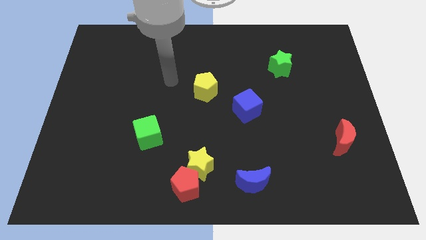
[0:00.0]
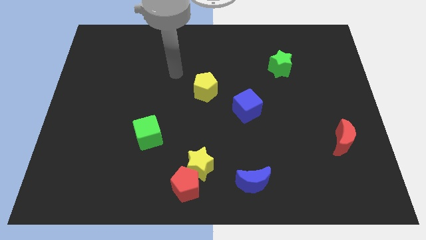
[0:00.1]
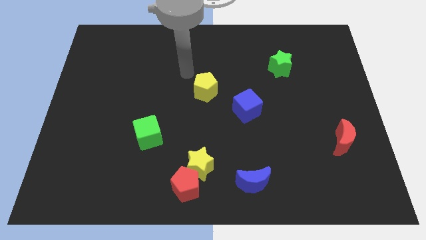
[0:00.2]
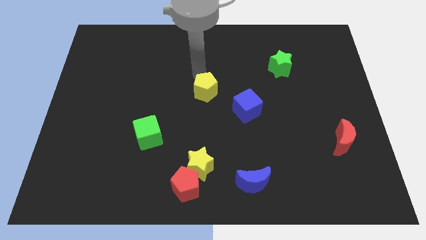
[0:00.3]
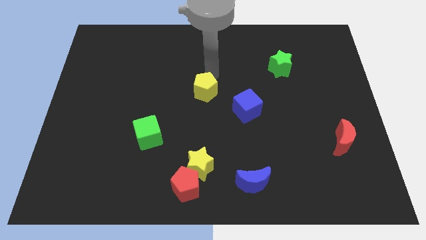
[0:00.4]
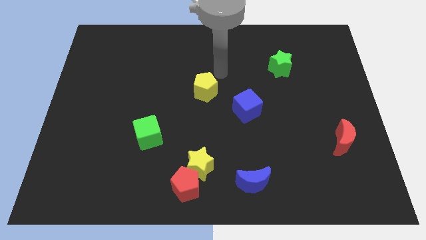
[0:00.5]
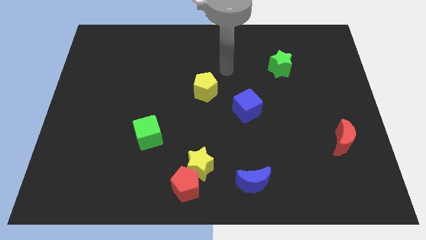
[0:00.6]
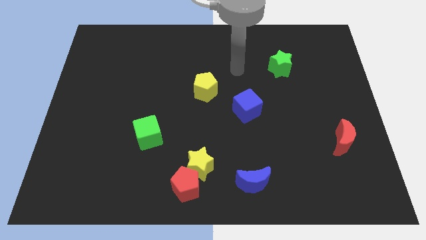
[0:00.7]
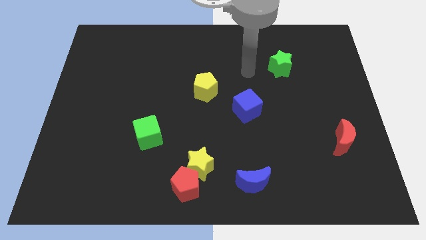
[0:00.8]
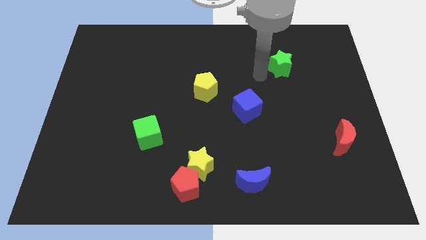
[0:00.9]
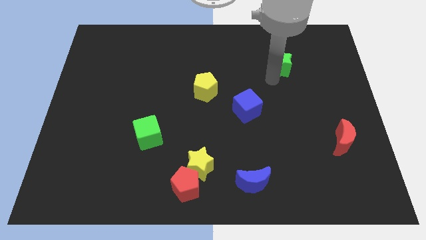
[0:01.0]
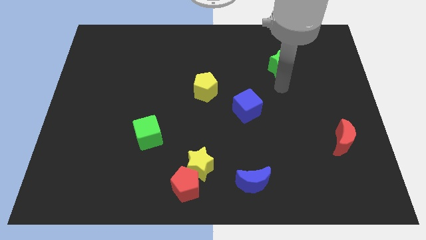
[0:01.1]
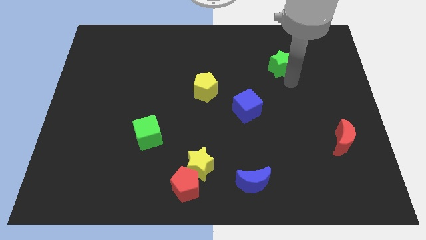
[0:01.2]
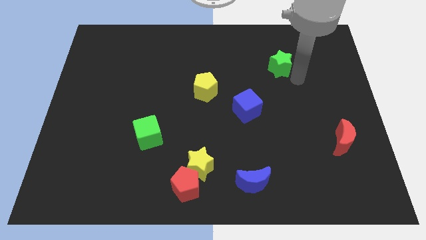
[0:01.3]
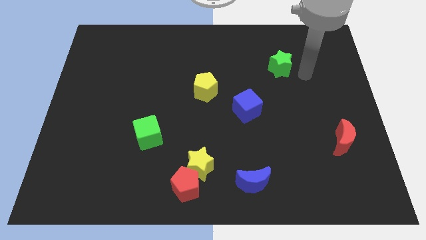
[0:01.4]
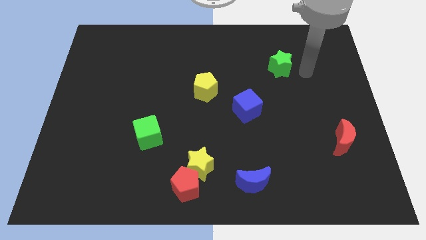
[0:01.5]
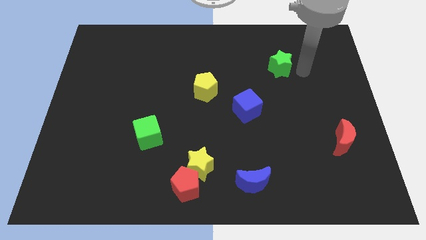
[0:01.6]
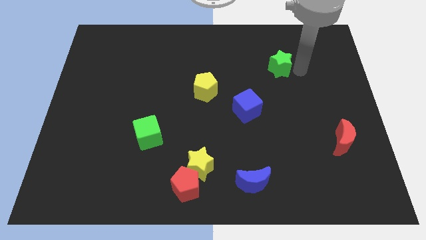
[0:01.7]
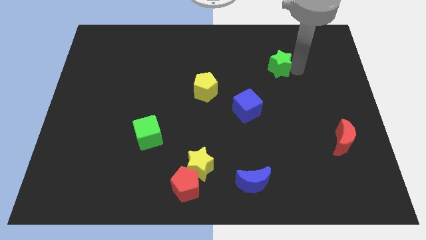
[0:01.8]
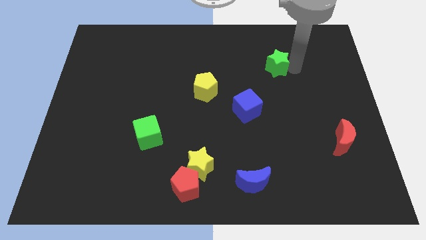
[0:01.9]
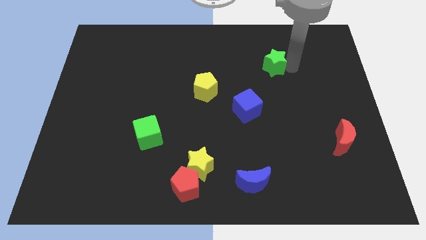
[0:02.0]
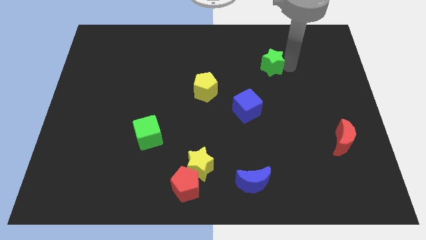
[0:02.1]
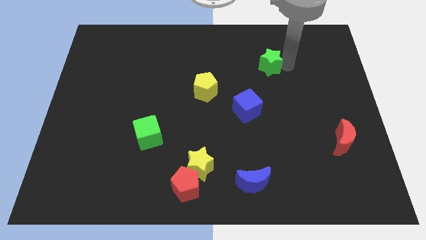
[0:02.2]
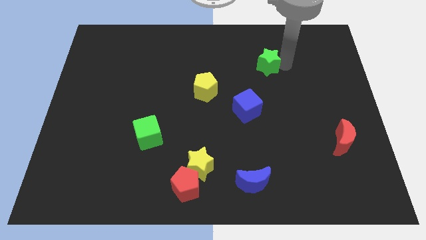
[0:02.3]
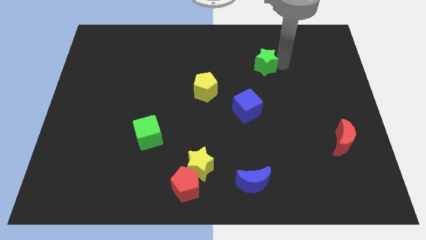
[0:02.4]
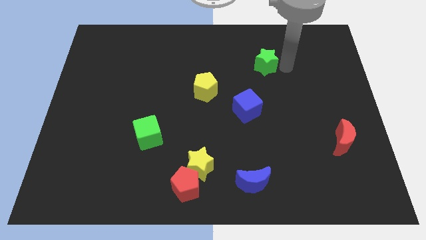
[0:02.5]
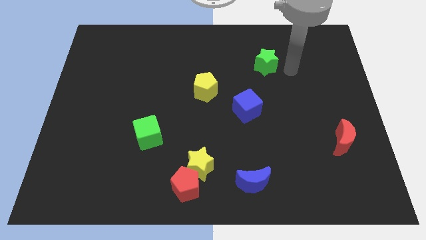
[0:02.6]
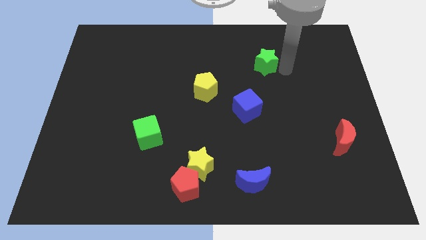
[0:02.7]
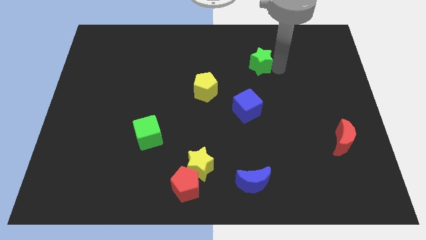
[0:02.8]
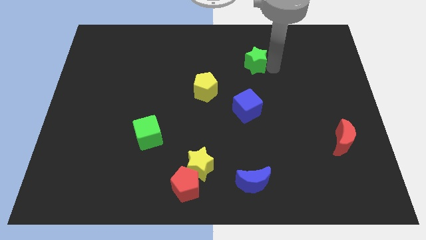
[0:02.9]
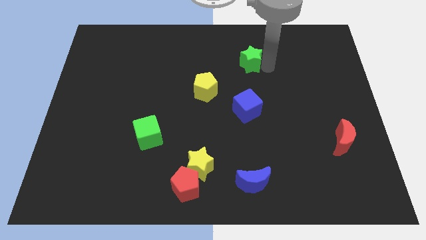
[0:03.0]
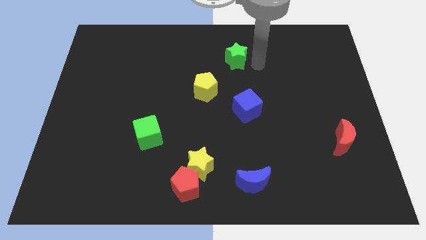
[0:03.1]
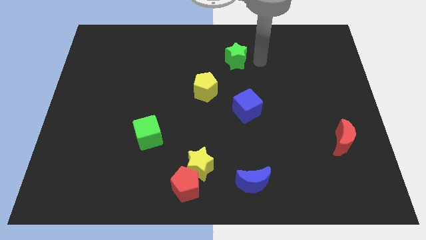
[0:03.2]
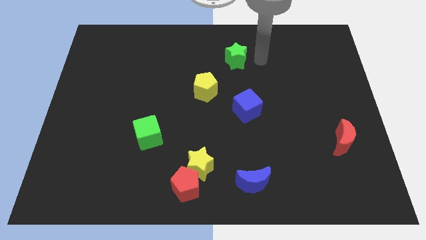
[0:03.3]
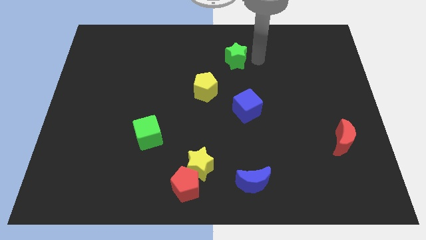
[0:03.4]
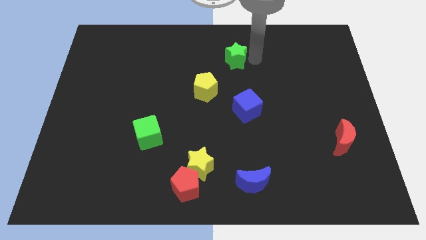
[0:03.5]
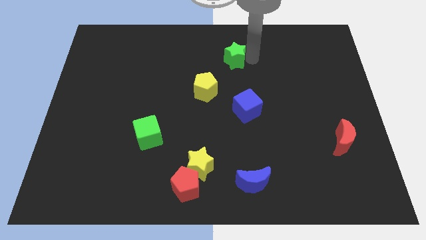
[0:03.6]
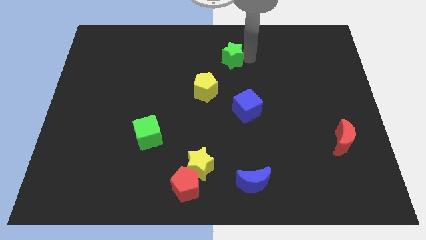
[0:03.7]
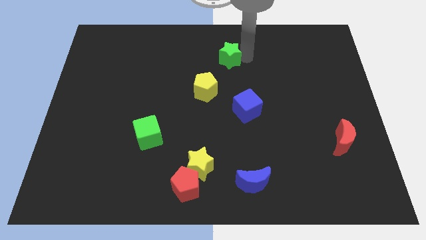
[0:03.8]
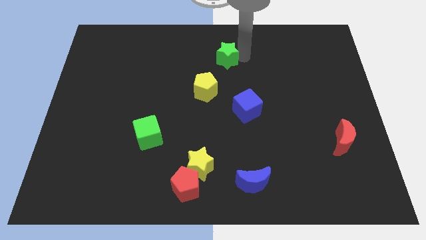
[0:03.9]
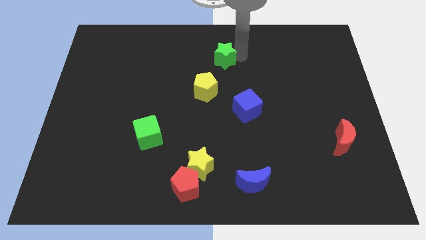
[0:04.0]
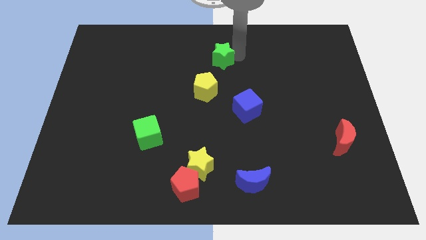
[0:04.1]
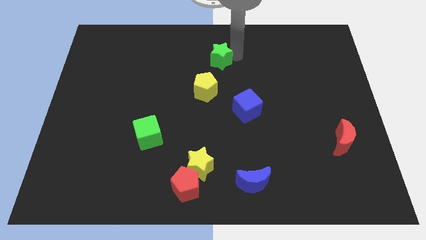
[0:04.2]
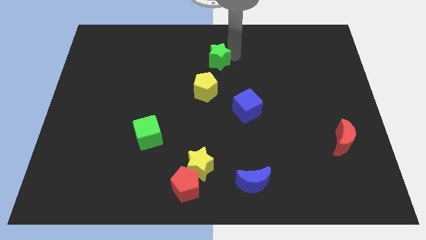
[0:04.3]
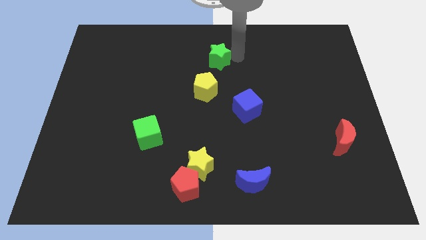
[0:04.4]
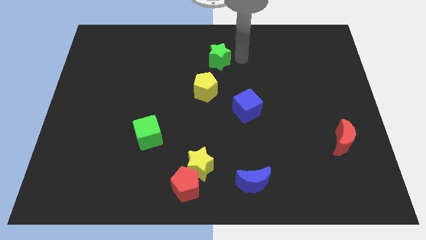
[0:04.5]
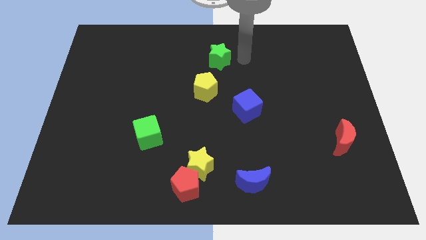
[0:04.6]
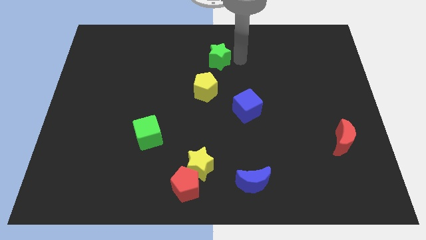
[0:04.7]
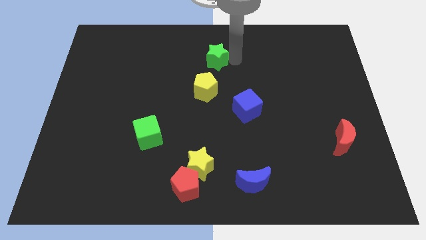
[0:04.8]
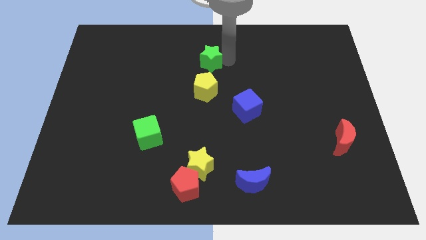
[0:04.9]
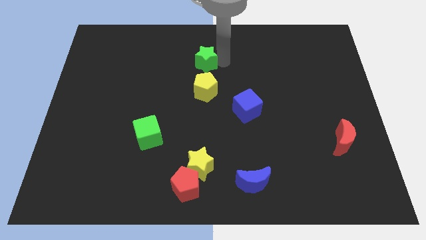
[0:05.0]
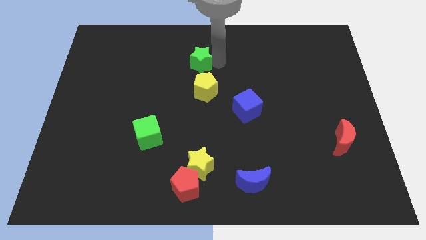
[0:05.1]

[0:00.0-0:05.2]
push the green star to the left

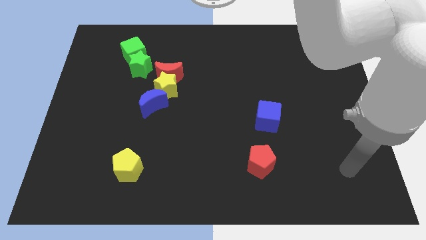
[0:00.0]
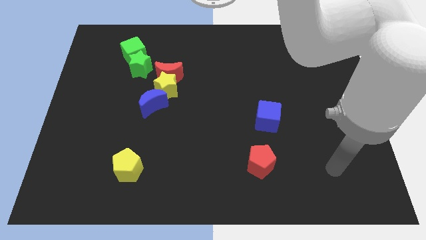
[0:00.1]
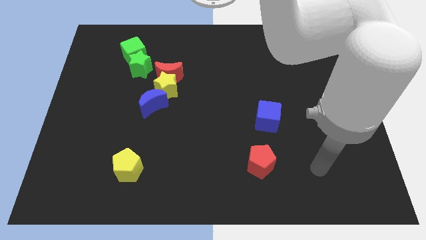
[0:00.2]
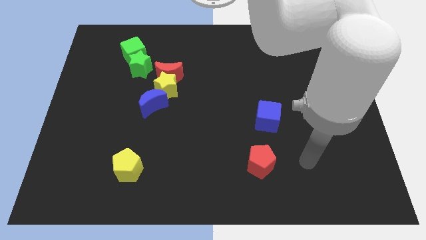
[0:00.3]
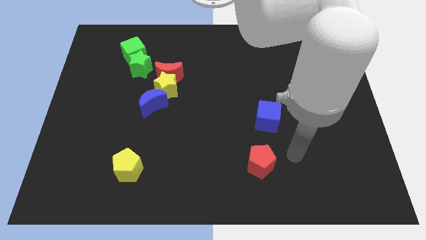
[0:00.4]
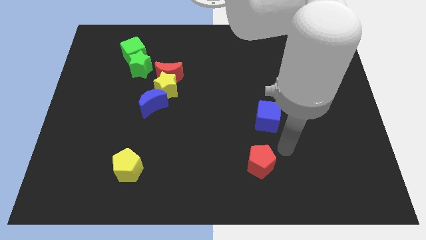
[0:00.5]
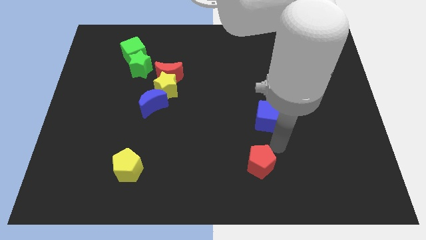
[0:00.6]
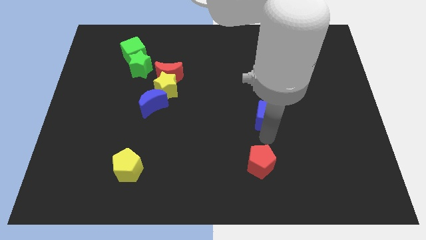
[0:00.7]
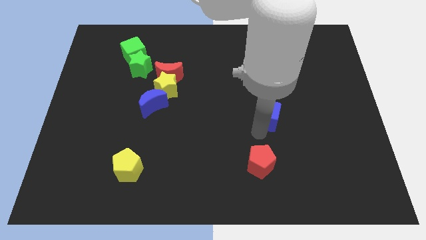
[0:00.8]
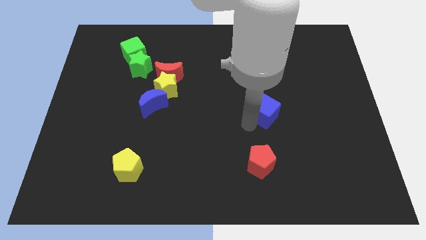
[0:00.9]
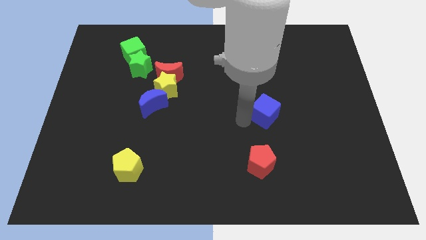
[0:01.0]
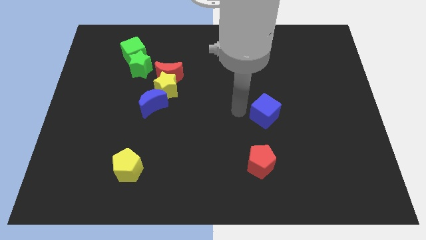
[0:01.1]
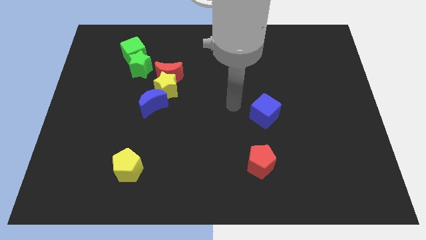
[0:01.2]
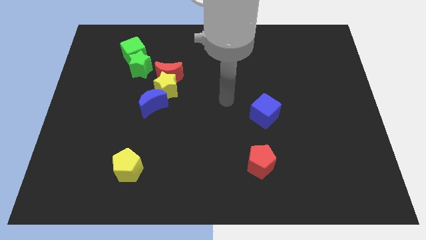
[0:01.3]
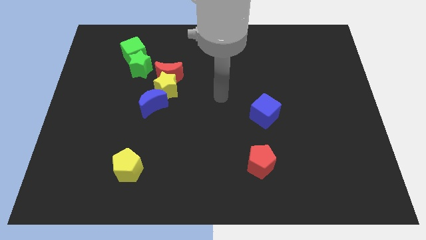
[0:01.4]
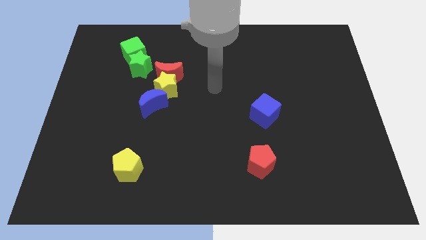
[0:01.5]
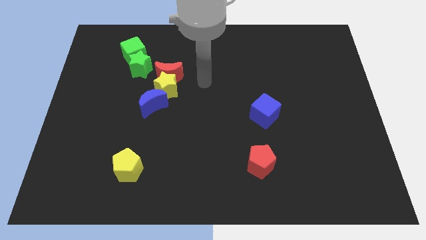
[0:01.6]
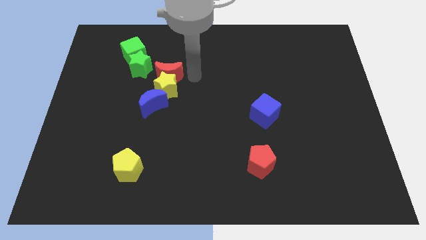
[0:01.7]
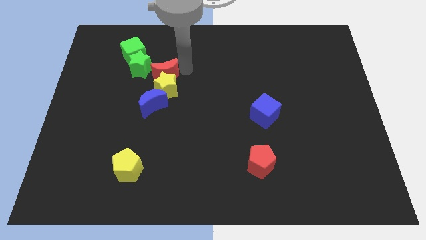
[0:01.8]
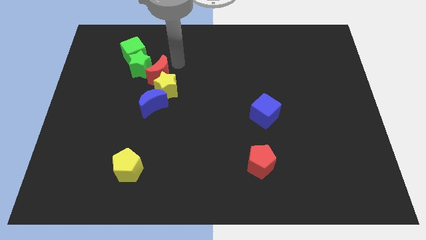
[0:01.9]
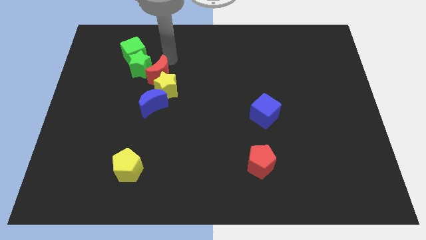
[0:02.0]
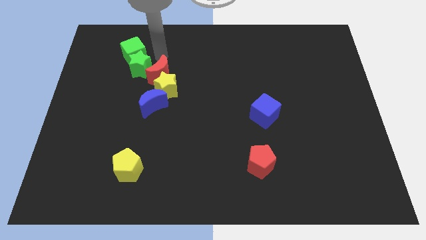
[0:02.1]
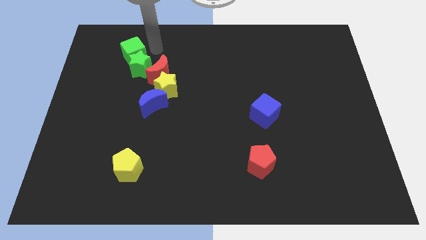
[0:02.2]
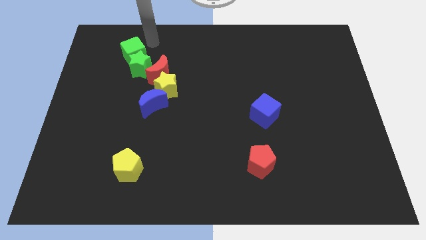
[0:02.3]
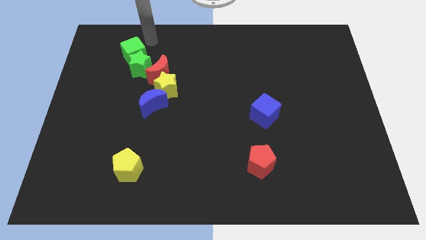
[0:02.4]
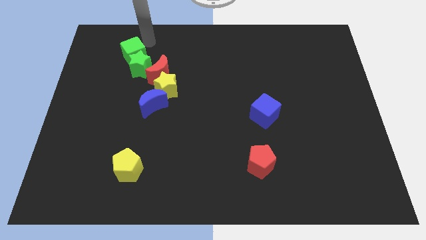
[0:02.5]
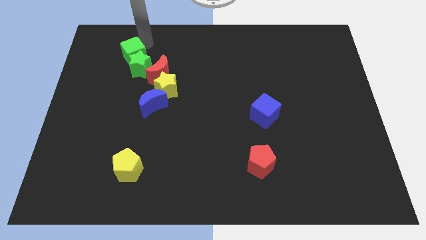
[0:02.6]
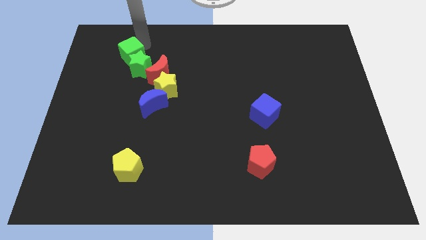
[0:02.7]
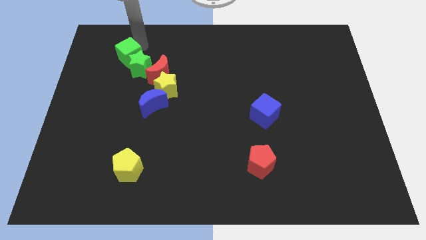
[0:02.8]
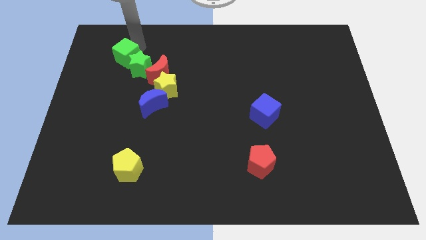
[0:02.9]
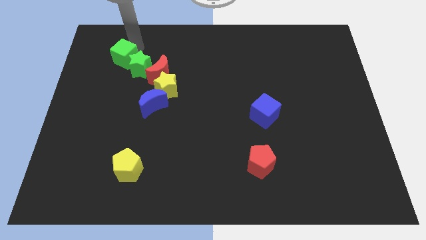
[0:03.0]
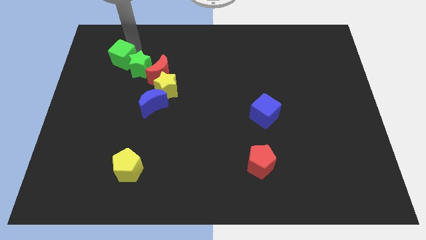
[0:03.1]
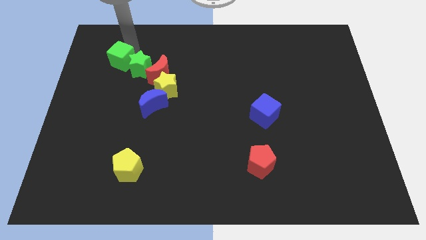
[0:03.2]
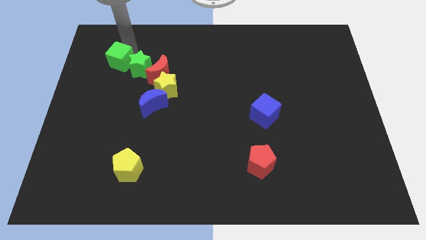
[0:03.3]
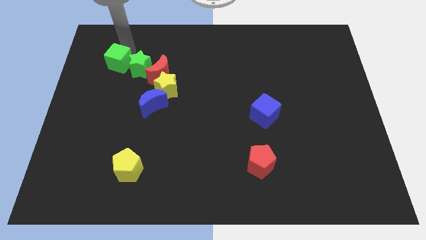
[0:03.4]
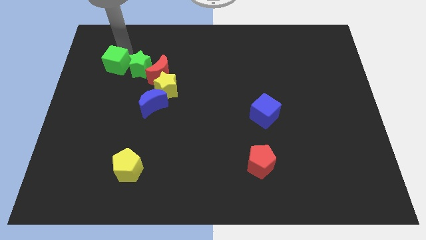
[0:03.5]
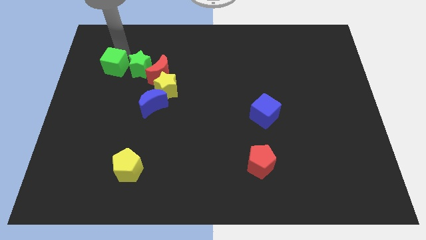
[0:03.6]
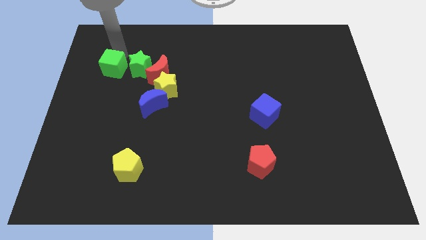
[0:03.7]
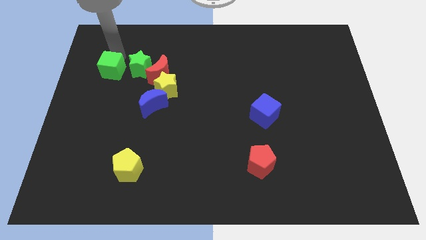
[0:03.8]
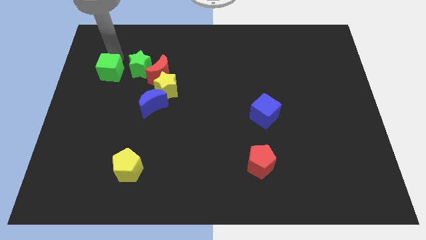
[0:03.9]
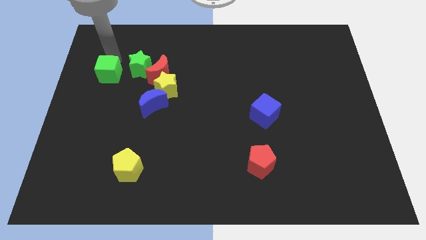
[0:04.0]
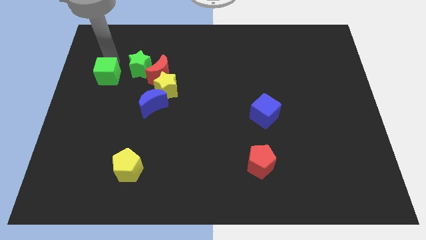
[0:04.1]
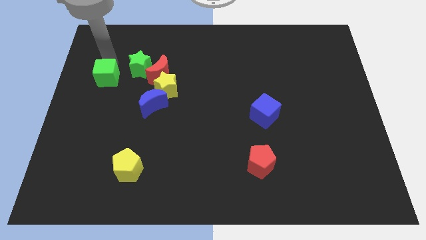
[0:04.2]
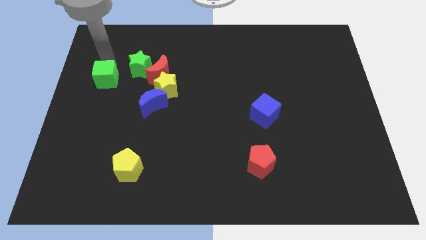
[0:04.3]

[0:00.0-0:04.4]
move the green cube a little down
